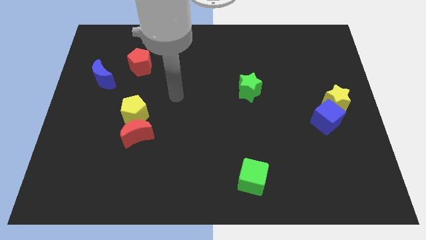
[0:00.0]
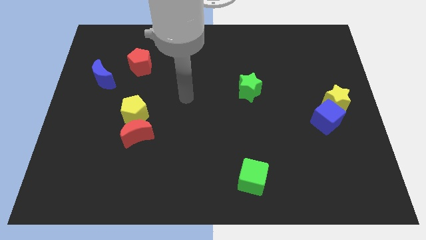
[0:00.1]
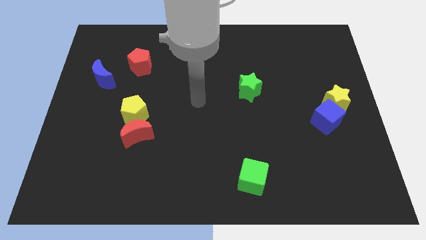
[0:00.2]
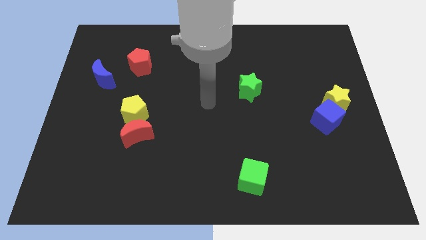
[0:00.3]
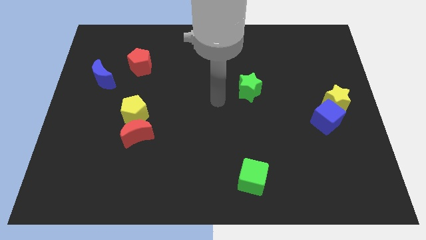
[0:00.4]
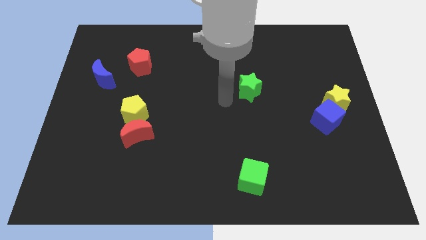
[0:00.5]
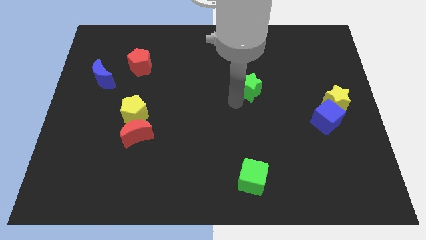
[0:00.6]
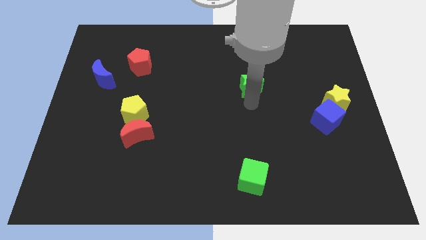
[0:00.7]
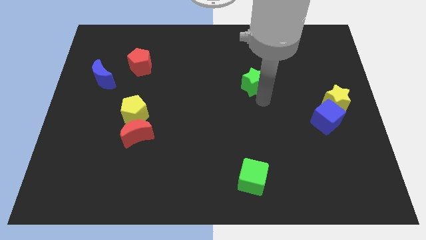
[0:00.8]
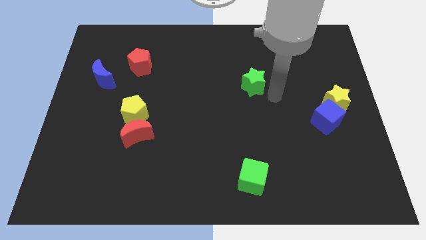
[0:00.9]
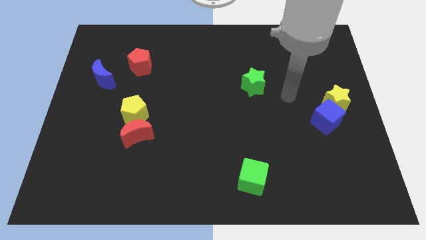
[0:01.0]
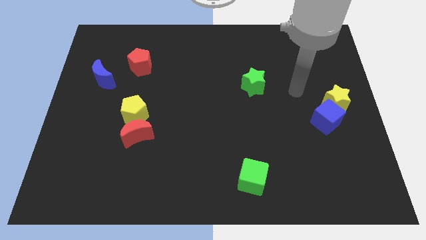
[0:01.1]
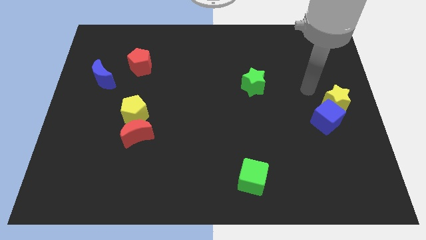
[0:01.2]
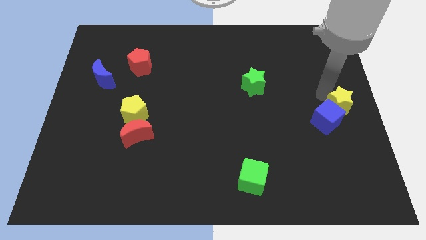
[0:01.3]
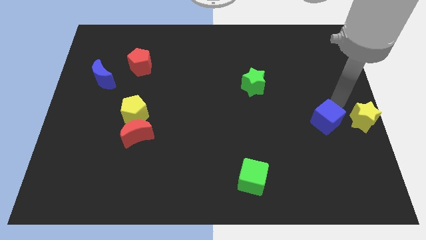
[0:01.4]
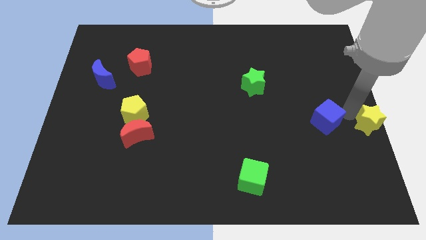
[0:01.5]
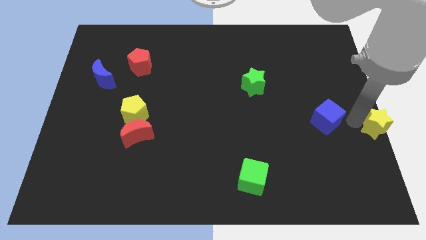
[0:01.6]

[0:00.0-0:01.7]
move the blue cube away from the yellow star

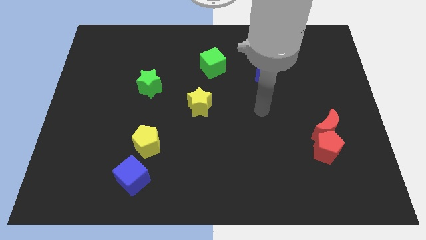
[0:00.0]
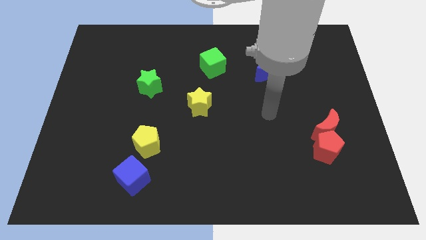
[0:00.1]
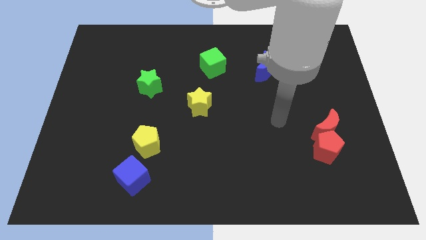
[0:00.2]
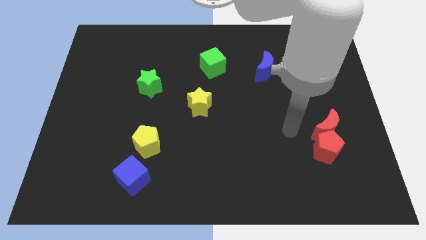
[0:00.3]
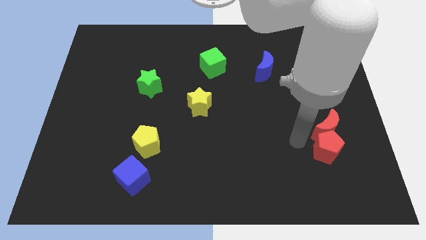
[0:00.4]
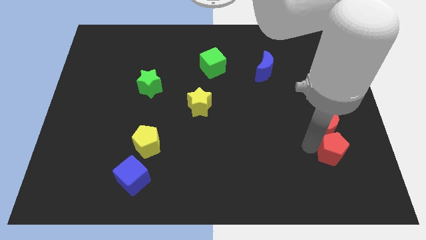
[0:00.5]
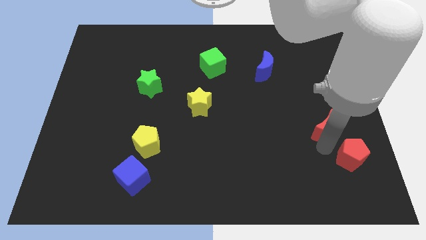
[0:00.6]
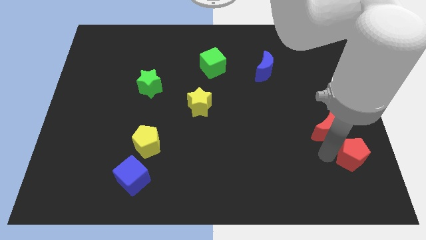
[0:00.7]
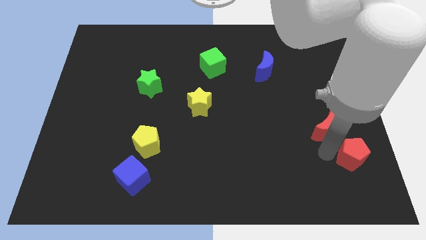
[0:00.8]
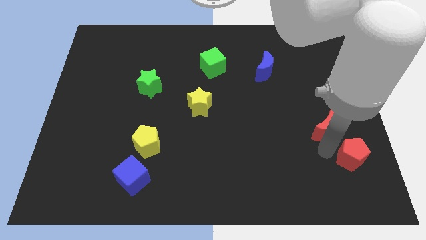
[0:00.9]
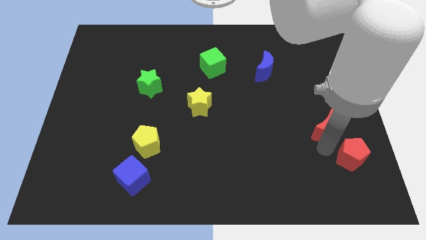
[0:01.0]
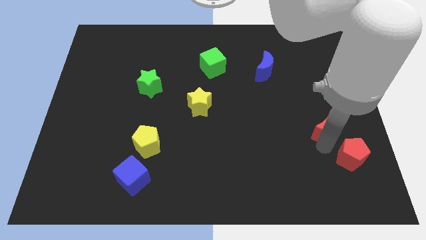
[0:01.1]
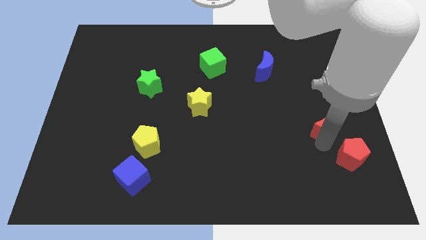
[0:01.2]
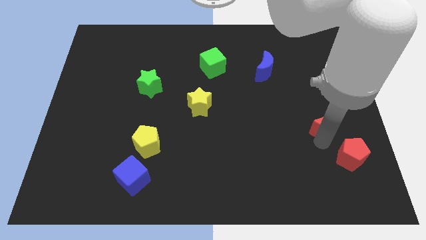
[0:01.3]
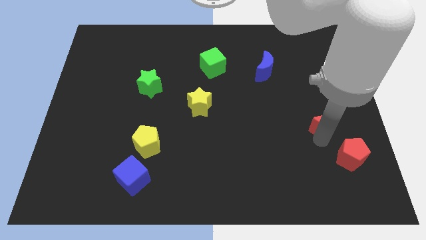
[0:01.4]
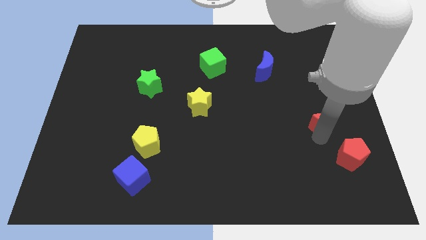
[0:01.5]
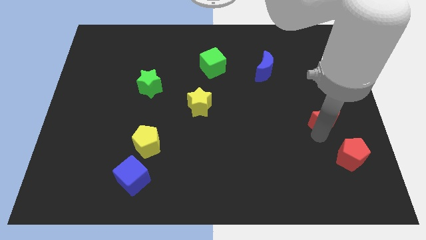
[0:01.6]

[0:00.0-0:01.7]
separate the red moon from the red pentagon

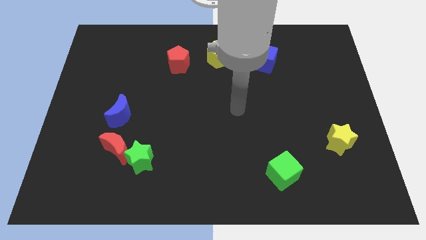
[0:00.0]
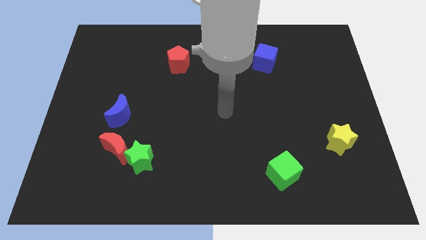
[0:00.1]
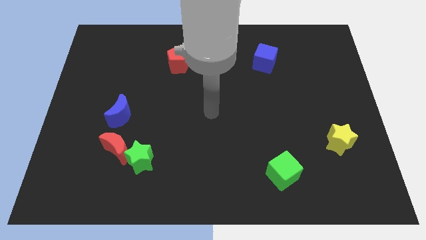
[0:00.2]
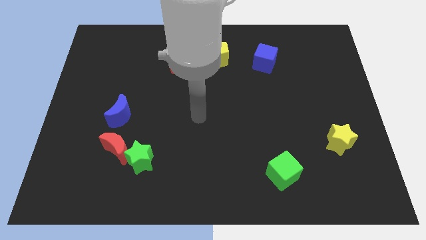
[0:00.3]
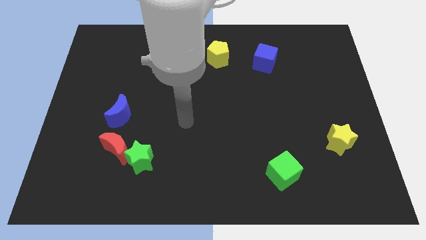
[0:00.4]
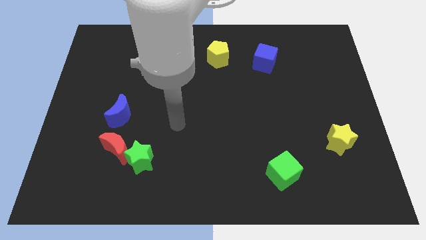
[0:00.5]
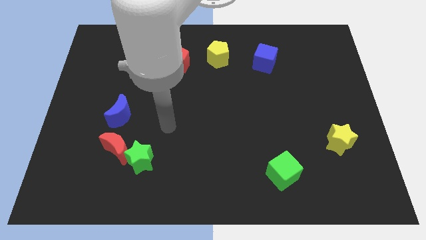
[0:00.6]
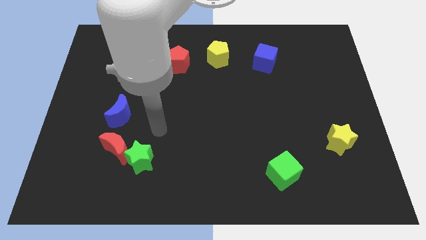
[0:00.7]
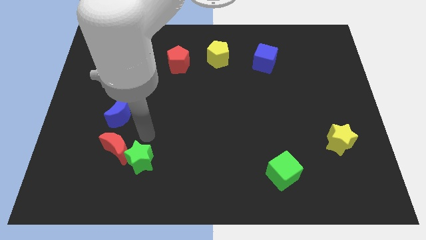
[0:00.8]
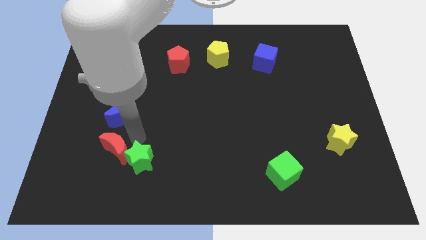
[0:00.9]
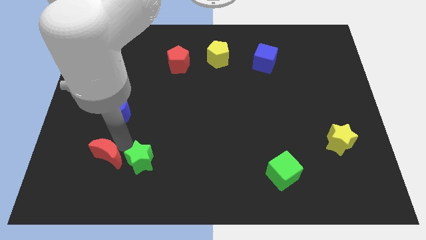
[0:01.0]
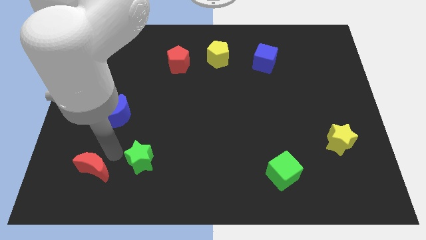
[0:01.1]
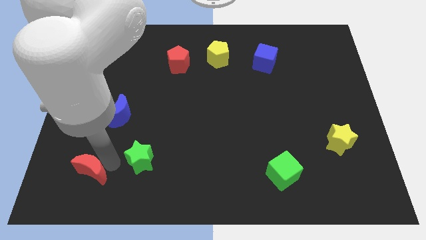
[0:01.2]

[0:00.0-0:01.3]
pull the green star apart from the red moon

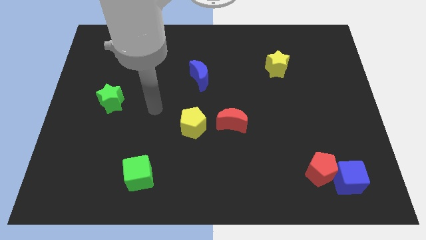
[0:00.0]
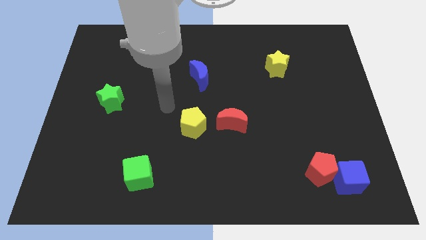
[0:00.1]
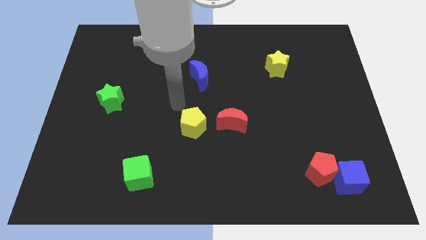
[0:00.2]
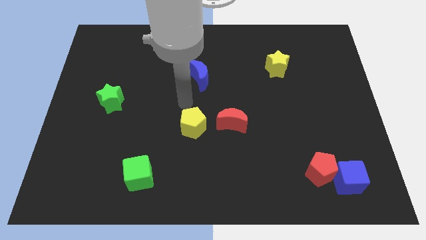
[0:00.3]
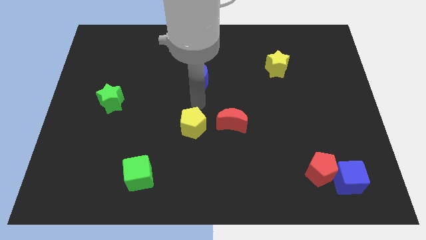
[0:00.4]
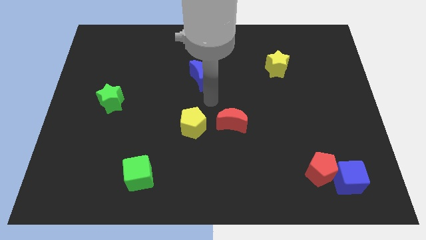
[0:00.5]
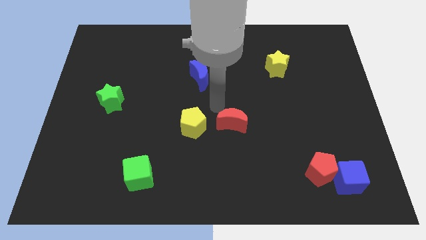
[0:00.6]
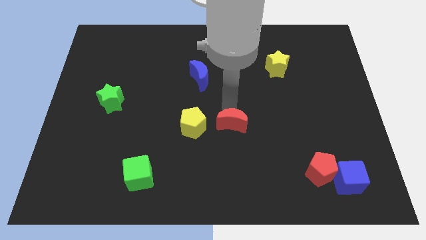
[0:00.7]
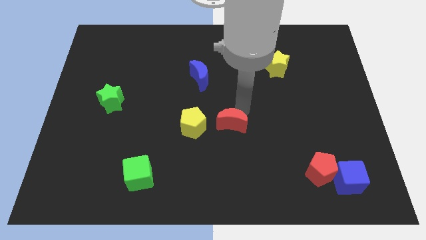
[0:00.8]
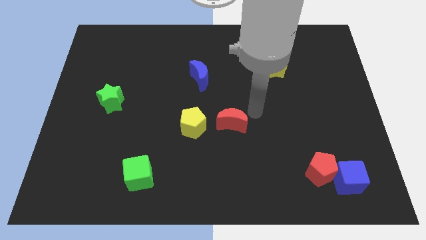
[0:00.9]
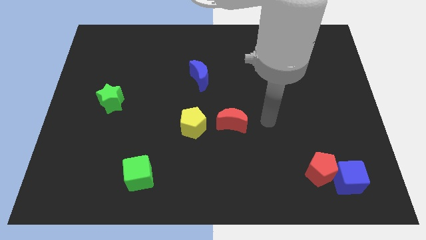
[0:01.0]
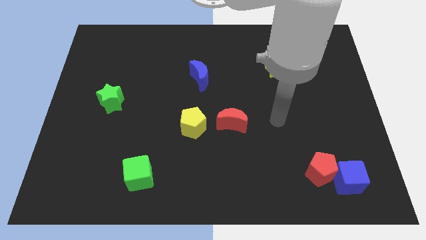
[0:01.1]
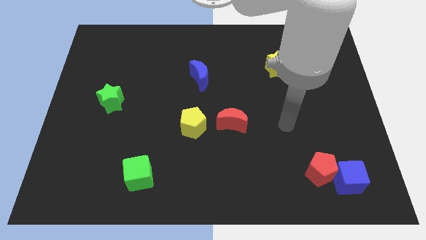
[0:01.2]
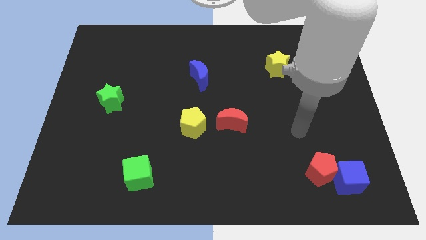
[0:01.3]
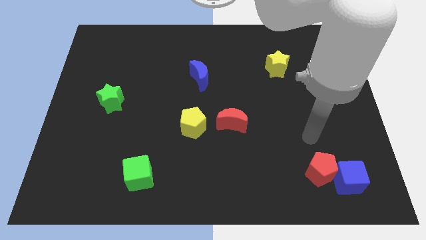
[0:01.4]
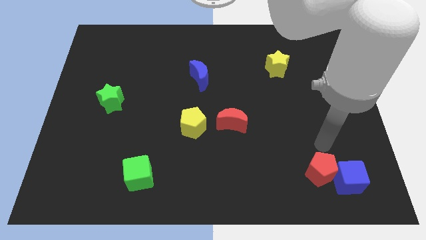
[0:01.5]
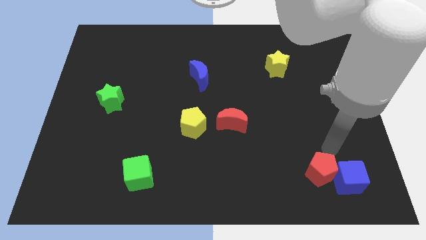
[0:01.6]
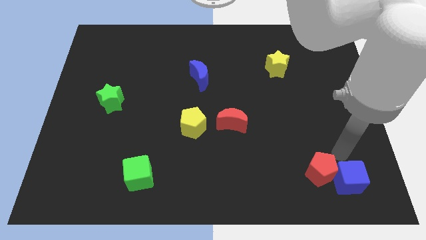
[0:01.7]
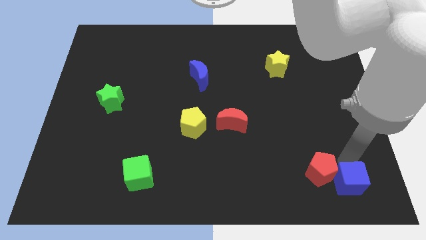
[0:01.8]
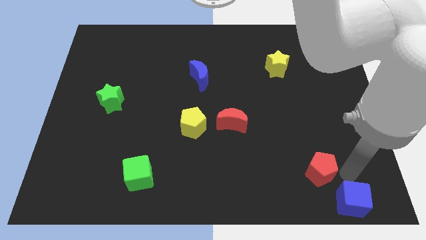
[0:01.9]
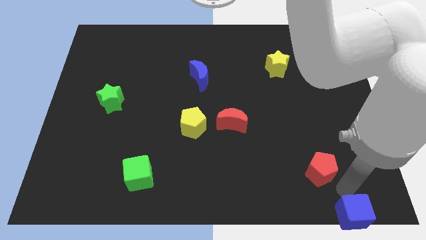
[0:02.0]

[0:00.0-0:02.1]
move the red pentagon away from the blue cube

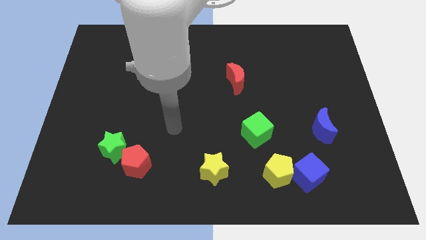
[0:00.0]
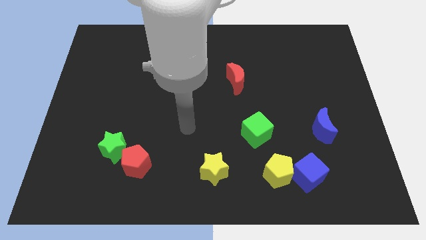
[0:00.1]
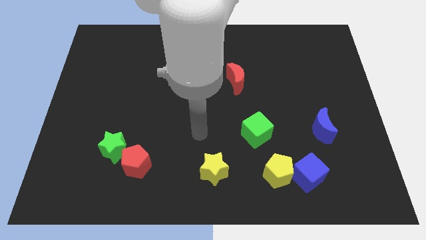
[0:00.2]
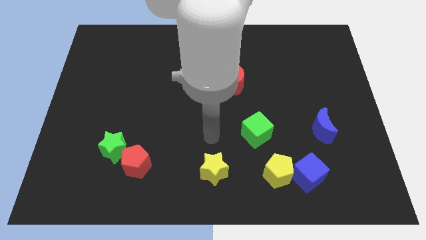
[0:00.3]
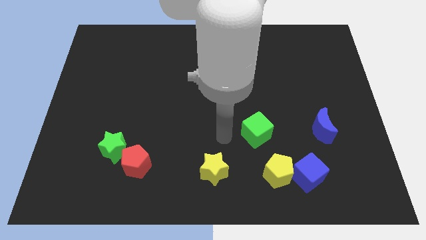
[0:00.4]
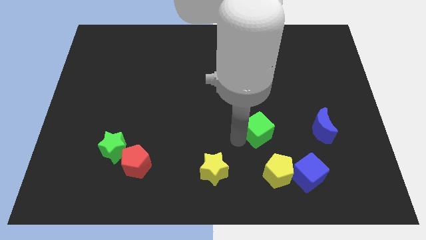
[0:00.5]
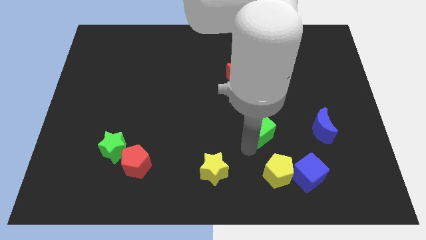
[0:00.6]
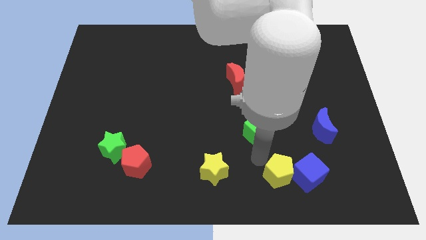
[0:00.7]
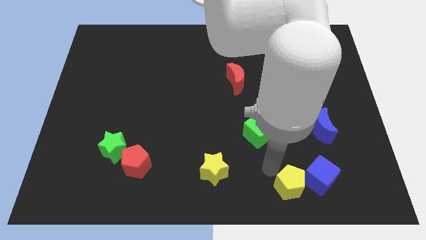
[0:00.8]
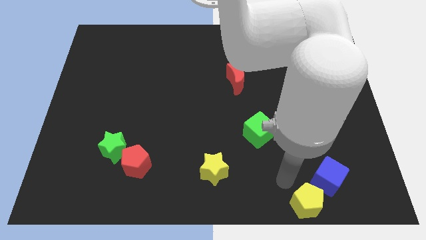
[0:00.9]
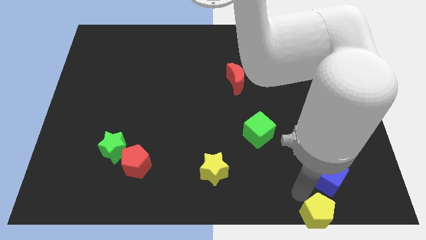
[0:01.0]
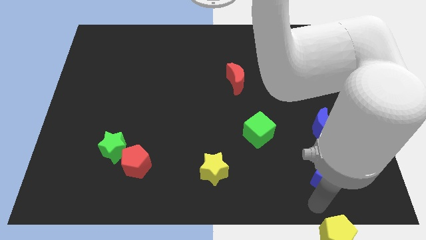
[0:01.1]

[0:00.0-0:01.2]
pull the blue cube apart from the yellow pentagon

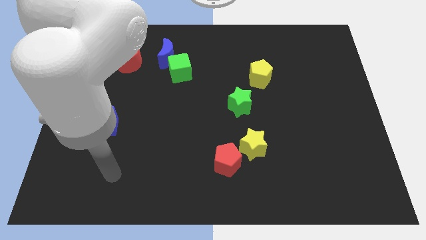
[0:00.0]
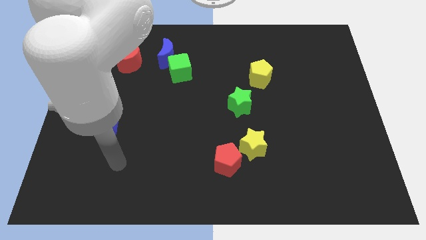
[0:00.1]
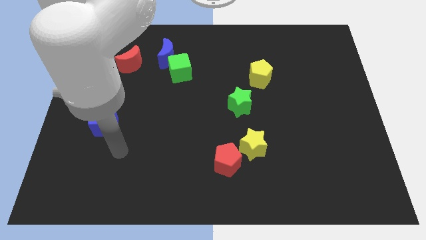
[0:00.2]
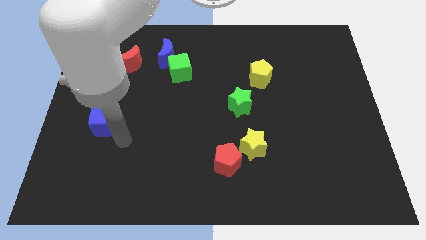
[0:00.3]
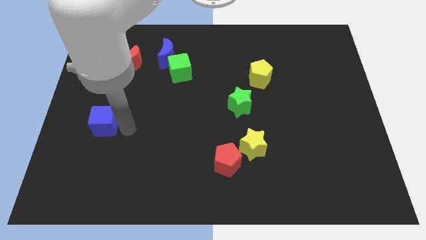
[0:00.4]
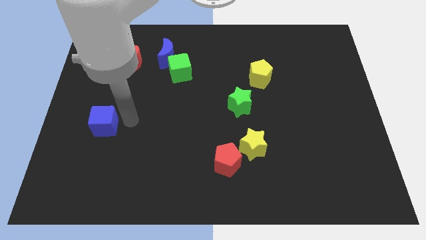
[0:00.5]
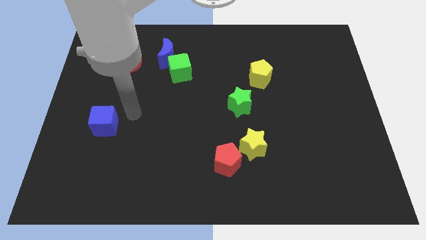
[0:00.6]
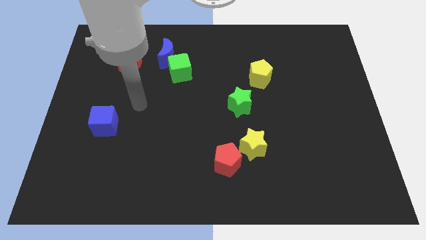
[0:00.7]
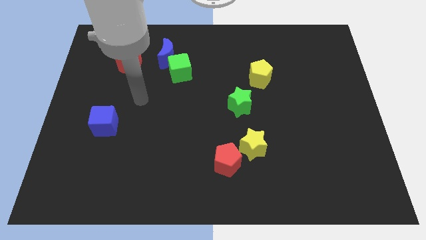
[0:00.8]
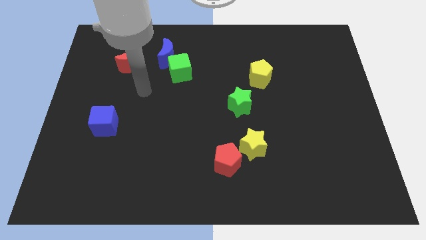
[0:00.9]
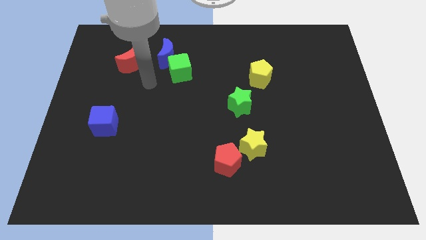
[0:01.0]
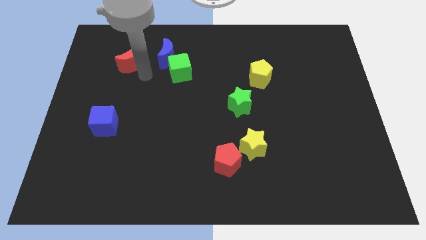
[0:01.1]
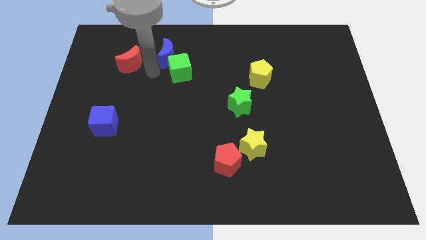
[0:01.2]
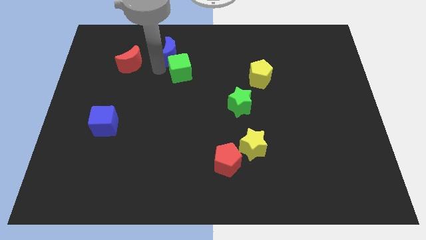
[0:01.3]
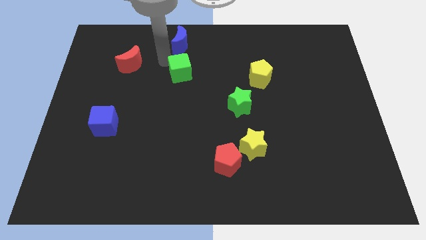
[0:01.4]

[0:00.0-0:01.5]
separate the green cube from the blue moon
